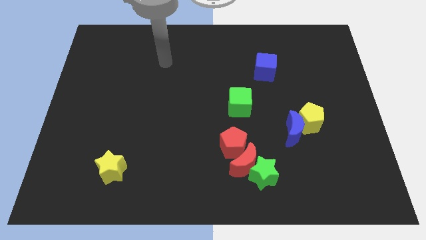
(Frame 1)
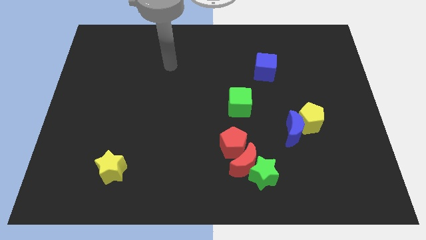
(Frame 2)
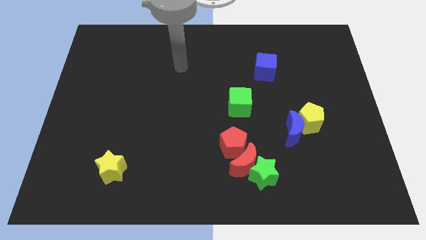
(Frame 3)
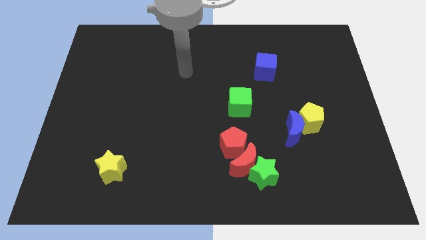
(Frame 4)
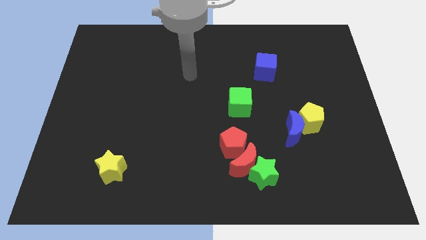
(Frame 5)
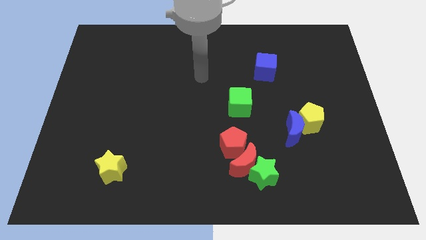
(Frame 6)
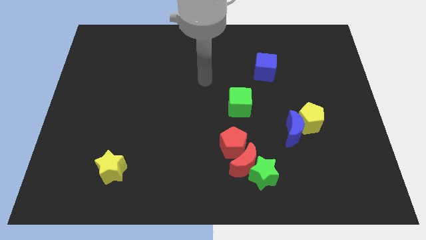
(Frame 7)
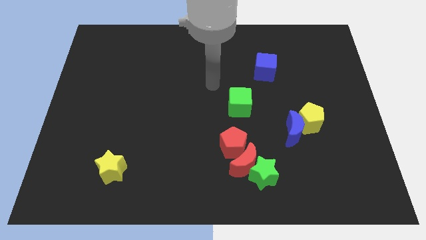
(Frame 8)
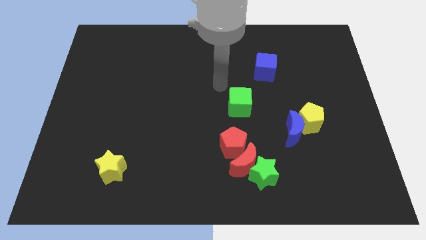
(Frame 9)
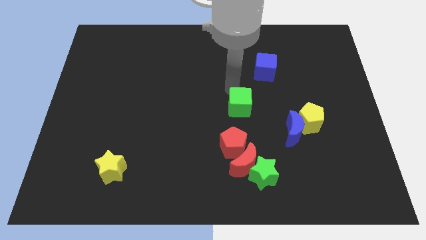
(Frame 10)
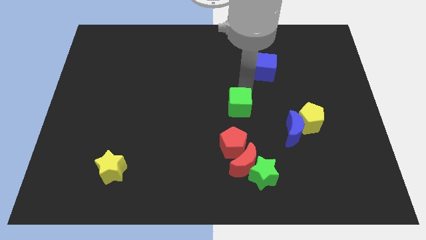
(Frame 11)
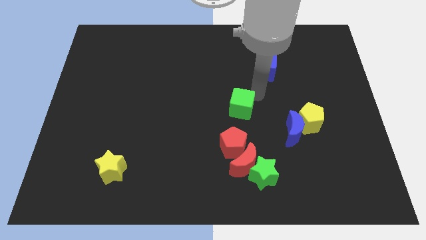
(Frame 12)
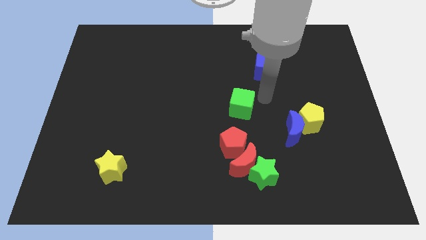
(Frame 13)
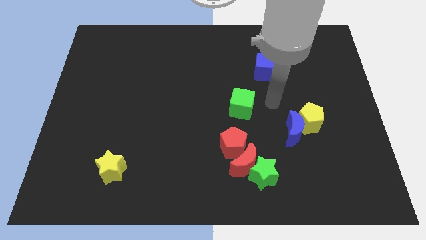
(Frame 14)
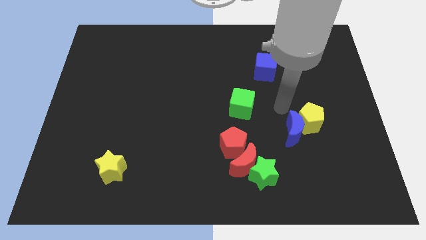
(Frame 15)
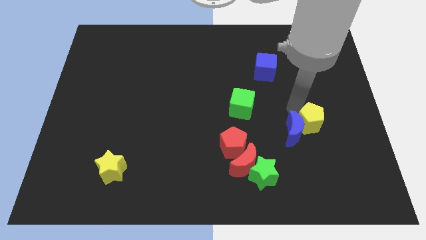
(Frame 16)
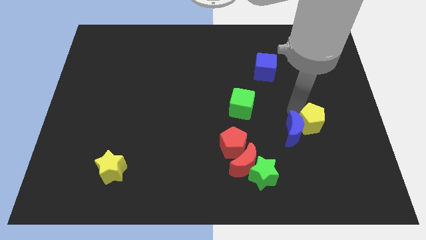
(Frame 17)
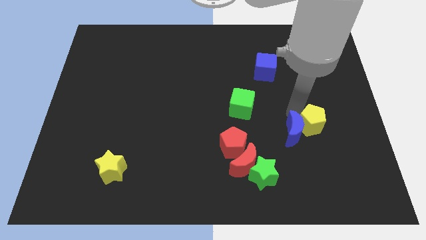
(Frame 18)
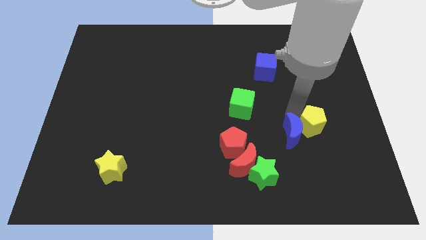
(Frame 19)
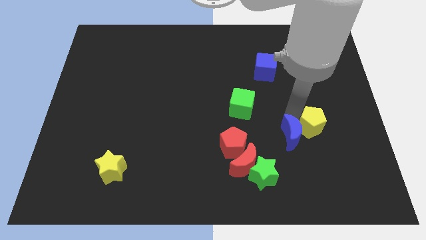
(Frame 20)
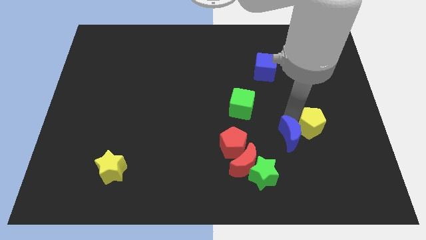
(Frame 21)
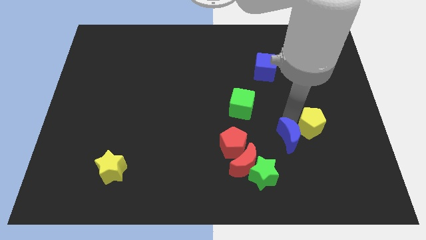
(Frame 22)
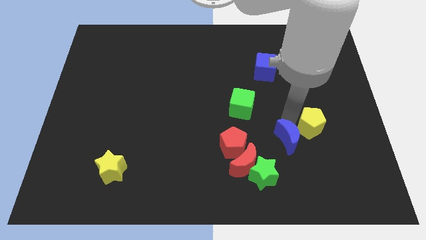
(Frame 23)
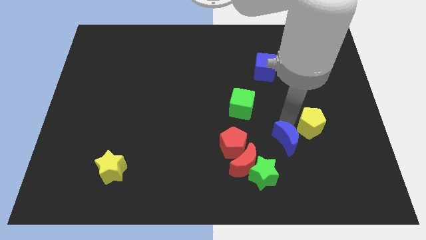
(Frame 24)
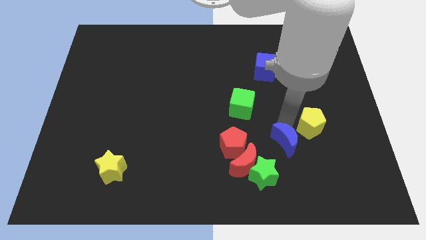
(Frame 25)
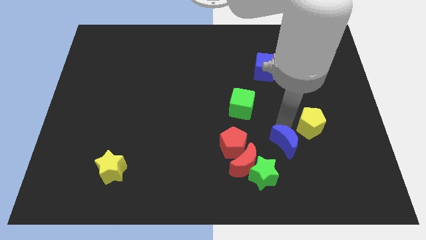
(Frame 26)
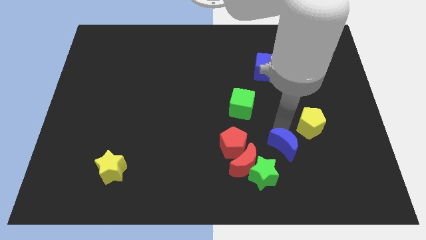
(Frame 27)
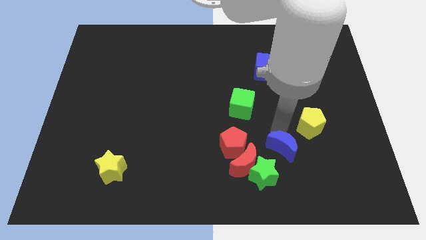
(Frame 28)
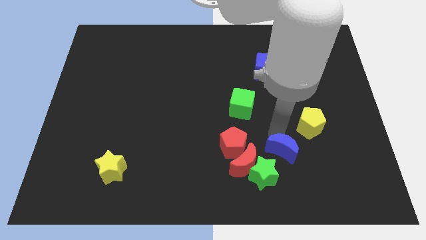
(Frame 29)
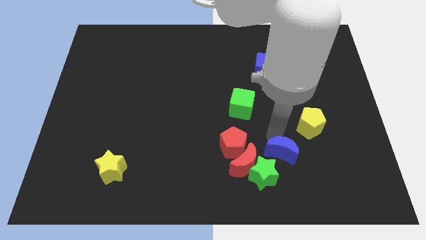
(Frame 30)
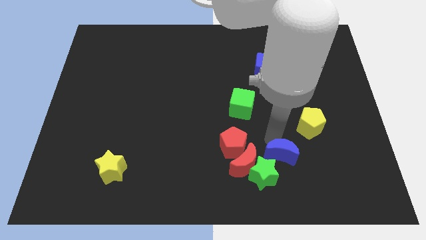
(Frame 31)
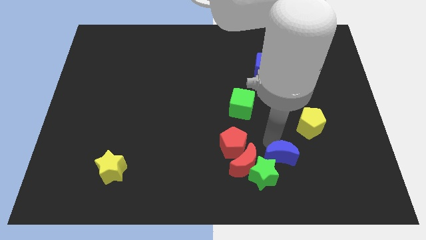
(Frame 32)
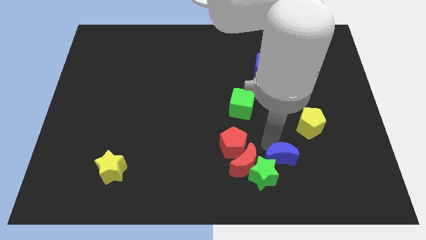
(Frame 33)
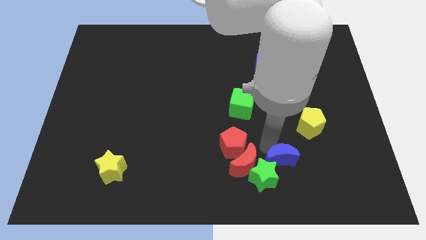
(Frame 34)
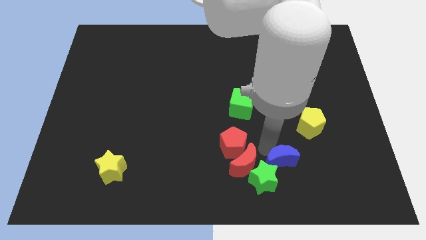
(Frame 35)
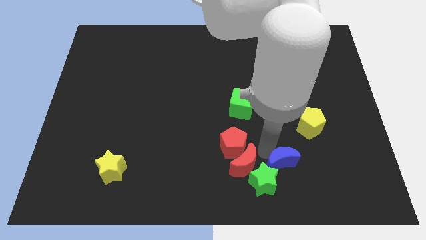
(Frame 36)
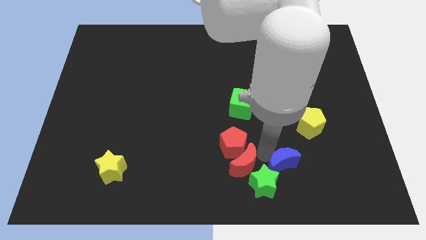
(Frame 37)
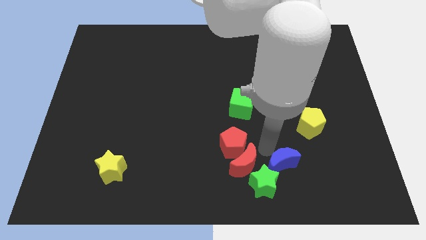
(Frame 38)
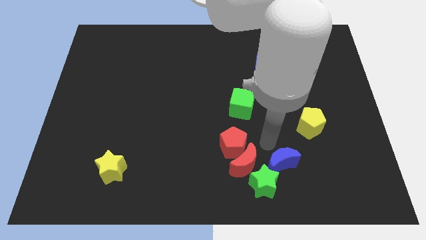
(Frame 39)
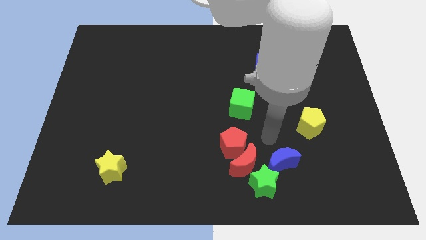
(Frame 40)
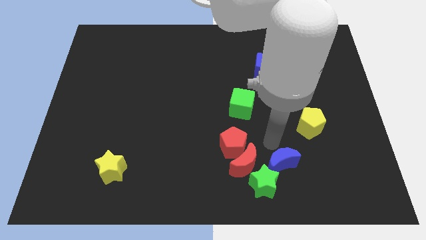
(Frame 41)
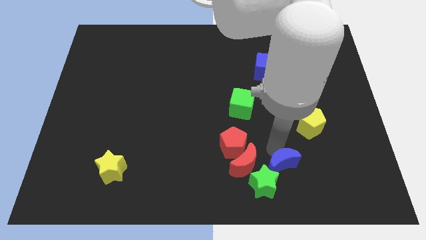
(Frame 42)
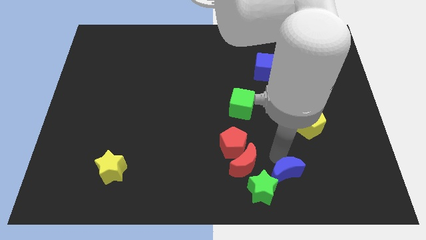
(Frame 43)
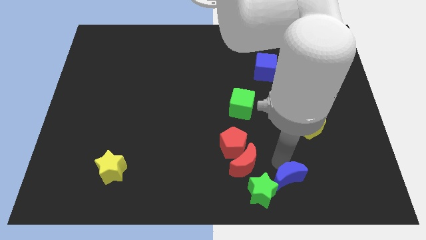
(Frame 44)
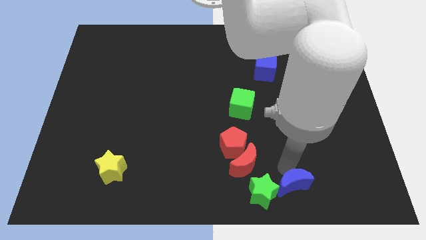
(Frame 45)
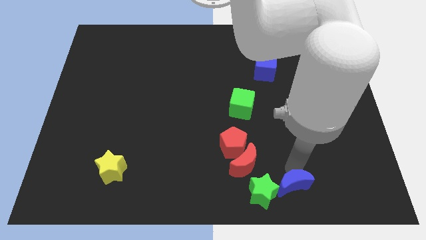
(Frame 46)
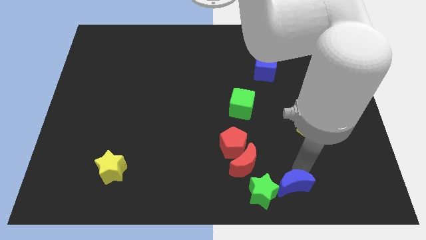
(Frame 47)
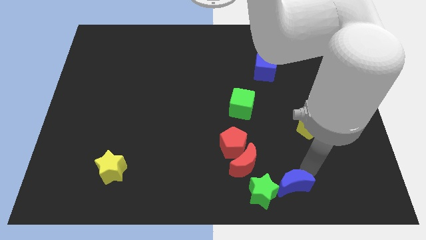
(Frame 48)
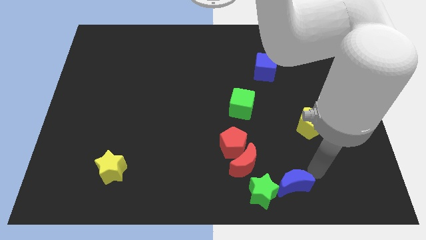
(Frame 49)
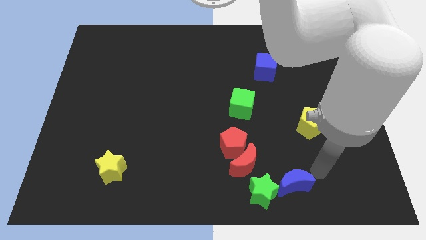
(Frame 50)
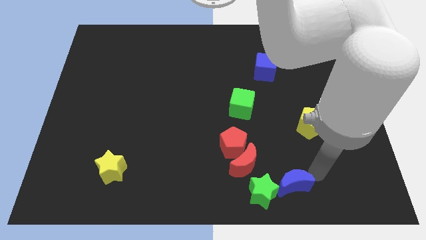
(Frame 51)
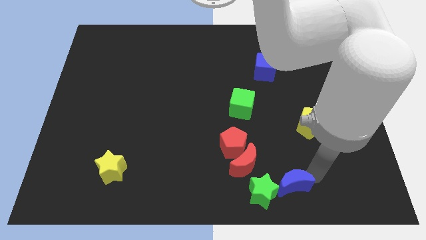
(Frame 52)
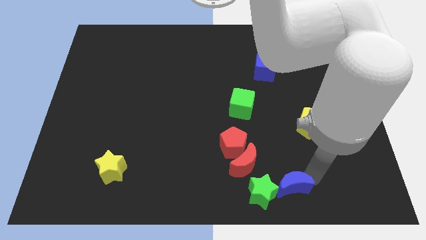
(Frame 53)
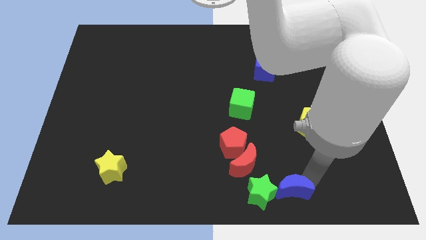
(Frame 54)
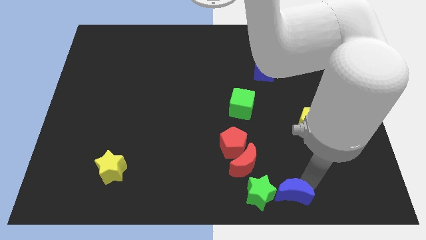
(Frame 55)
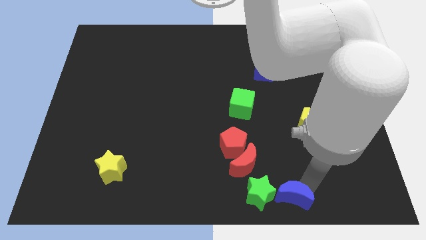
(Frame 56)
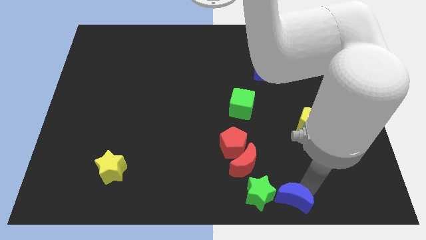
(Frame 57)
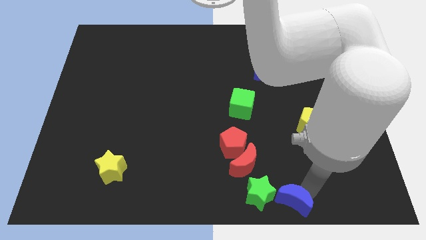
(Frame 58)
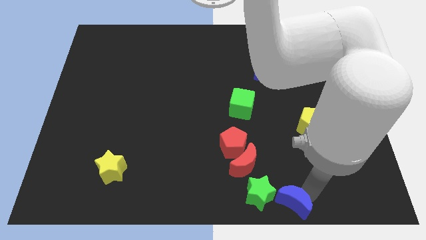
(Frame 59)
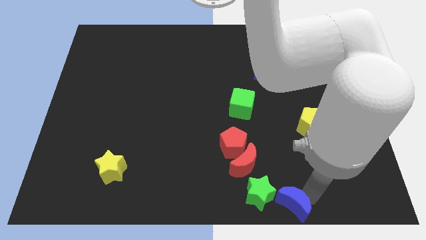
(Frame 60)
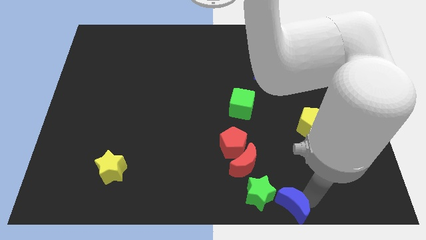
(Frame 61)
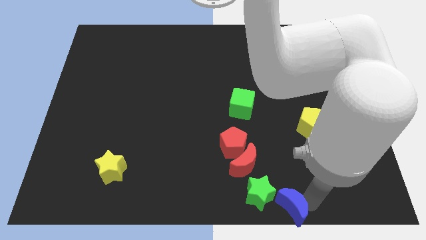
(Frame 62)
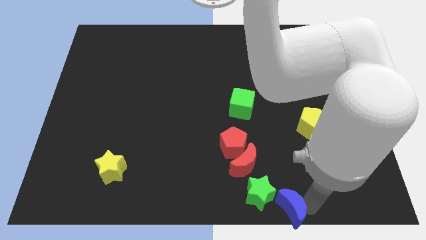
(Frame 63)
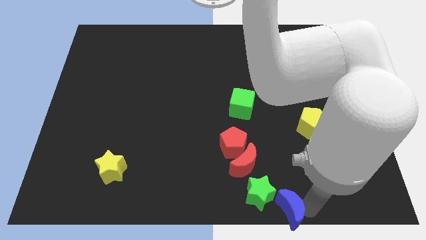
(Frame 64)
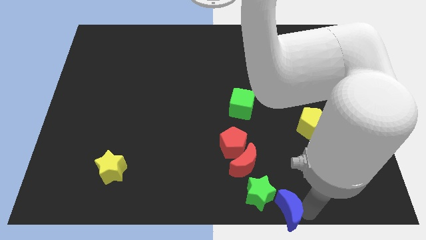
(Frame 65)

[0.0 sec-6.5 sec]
move the blue moon to the bottom side
